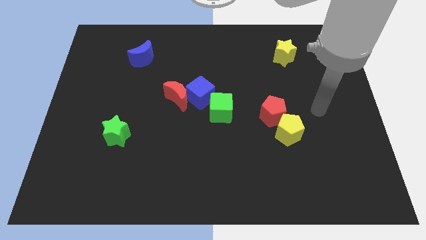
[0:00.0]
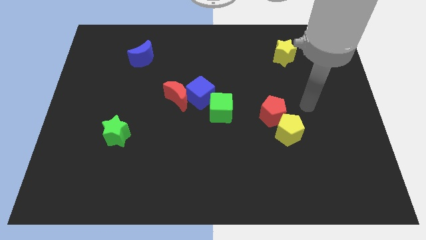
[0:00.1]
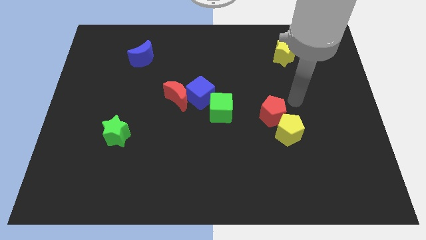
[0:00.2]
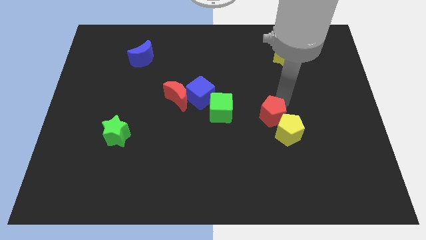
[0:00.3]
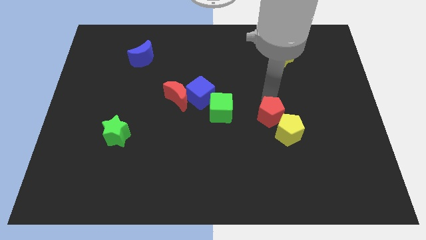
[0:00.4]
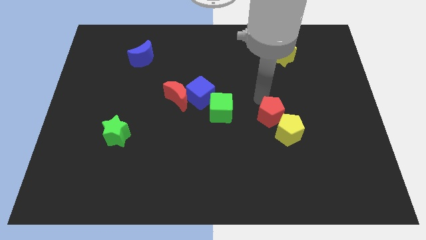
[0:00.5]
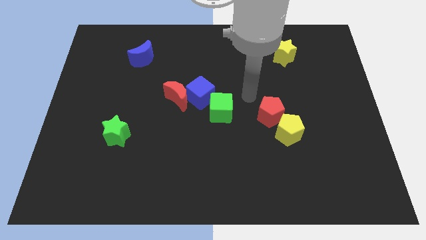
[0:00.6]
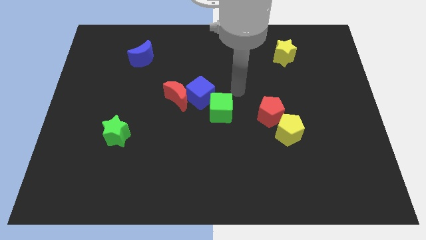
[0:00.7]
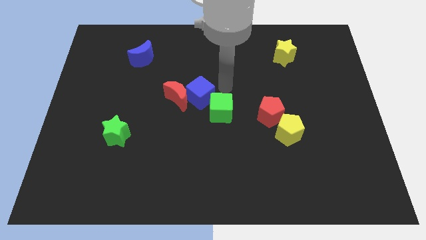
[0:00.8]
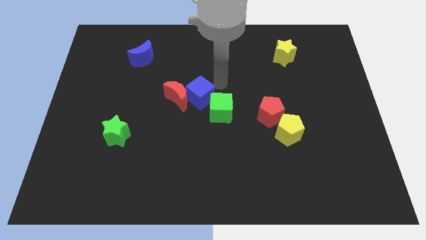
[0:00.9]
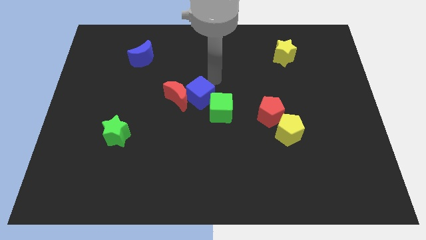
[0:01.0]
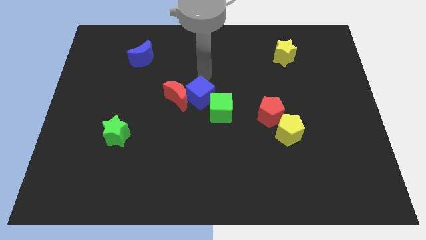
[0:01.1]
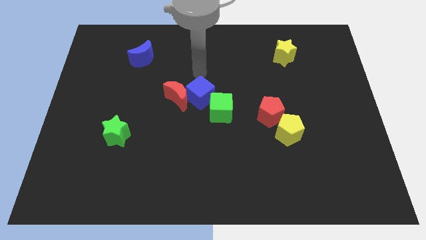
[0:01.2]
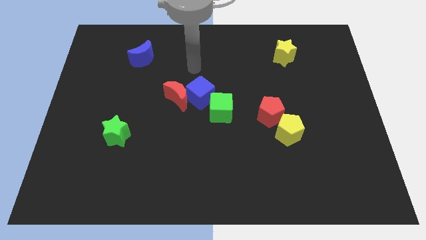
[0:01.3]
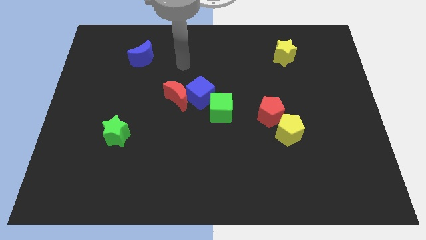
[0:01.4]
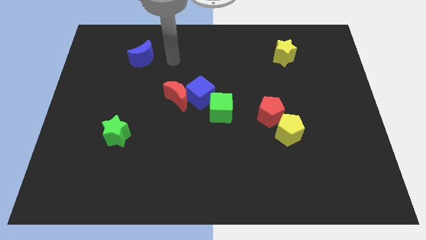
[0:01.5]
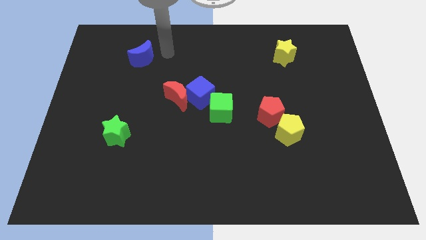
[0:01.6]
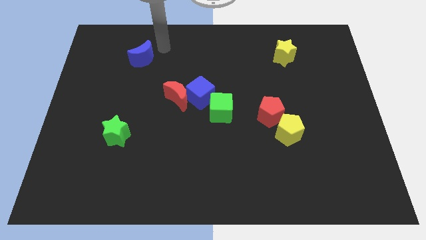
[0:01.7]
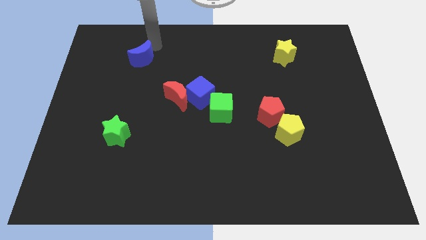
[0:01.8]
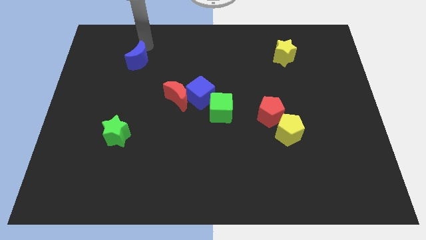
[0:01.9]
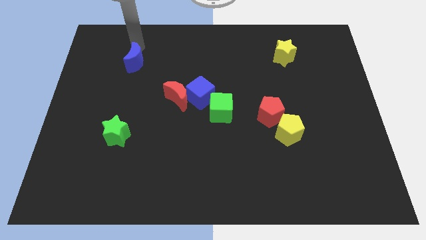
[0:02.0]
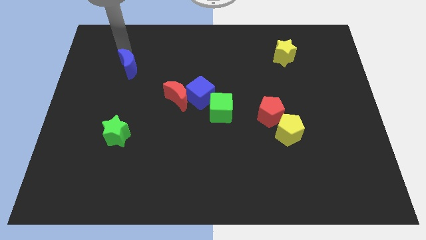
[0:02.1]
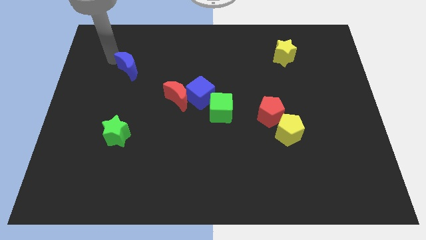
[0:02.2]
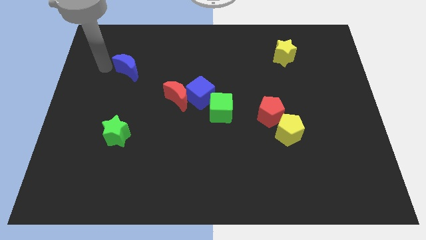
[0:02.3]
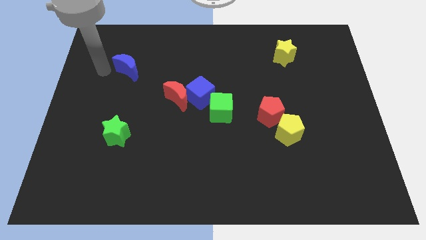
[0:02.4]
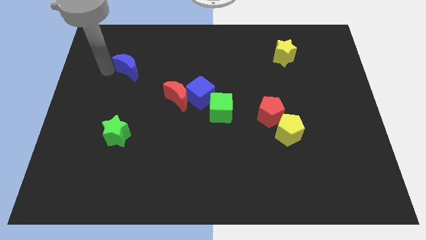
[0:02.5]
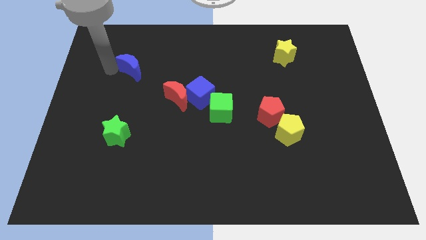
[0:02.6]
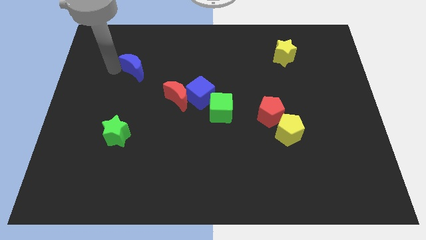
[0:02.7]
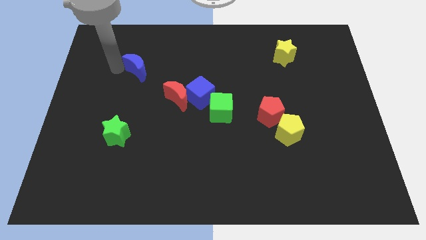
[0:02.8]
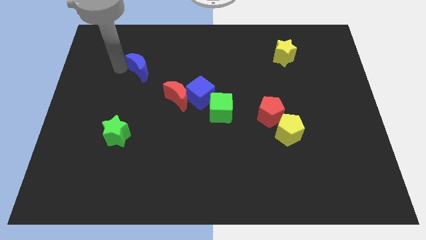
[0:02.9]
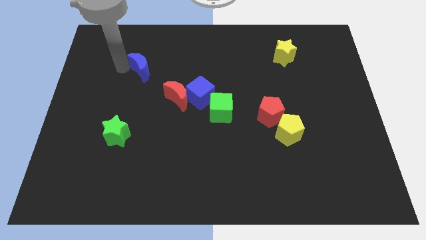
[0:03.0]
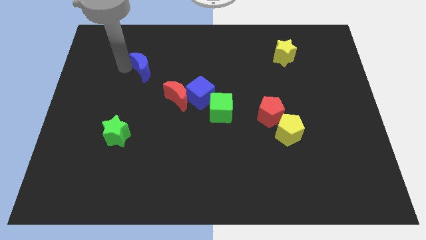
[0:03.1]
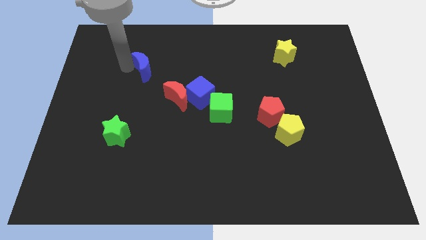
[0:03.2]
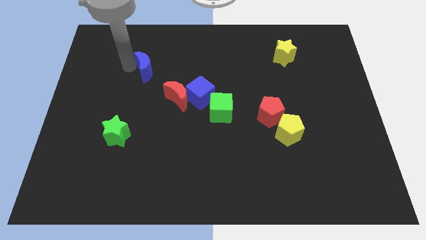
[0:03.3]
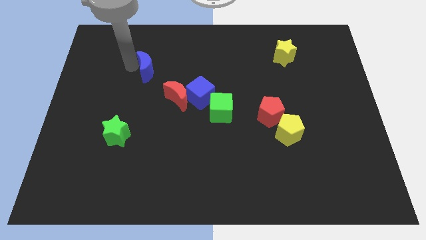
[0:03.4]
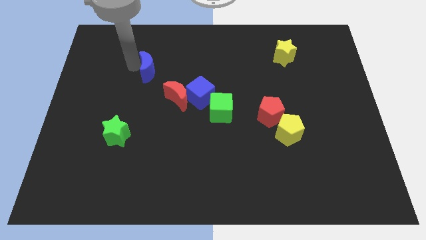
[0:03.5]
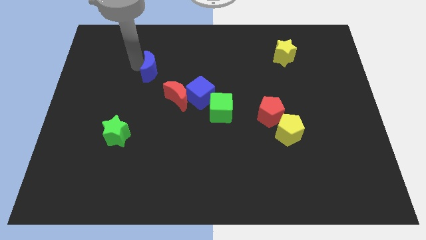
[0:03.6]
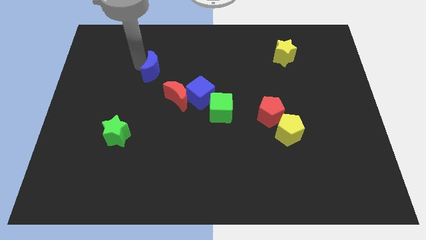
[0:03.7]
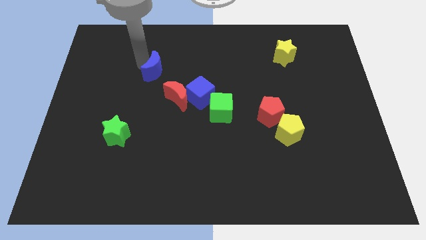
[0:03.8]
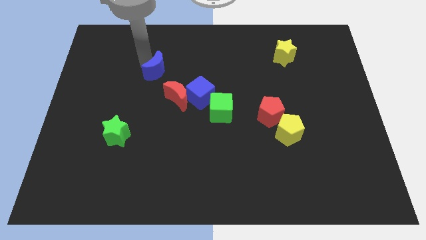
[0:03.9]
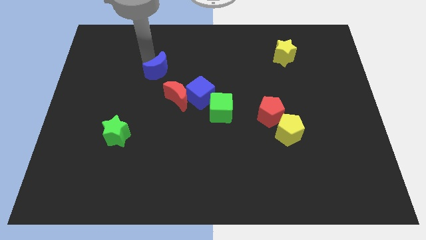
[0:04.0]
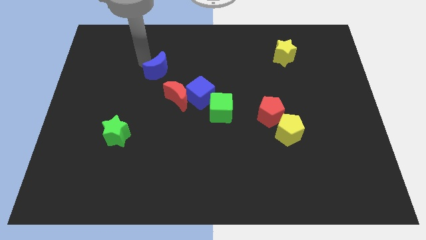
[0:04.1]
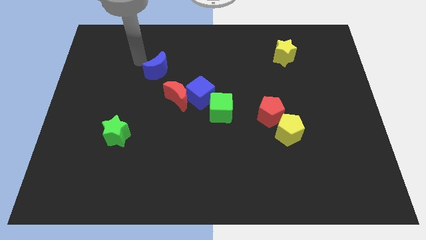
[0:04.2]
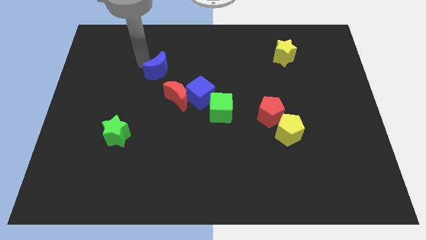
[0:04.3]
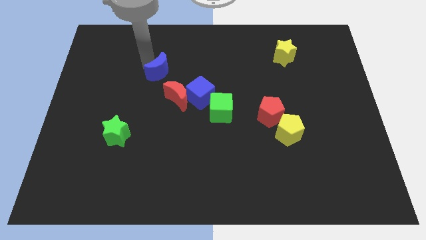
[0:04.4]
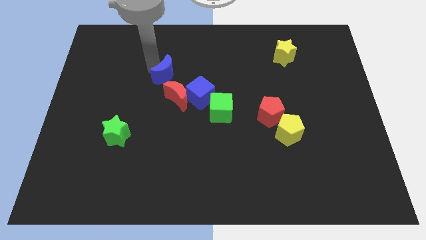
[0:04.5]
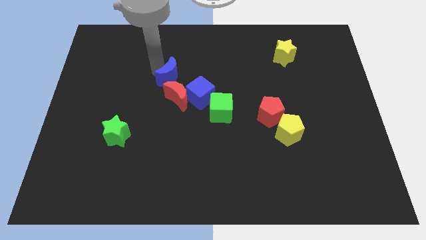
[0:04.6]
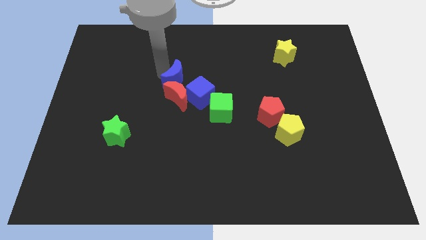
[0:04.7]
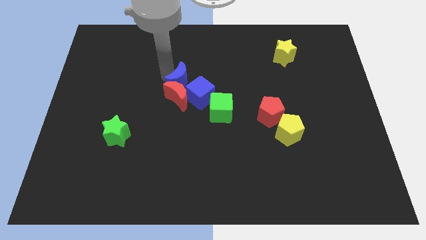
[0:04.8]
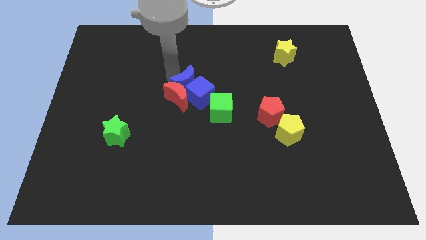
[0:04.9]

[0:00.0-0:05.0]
move the blue moon close to the blue cube

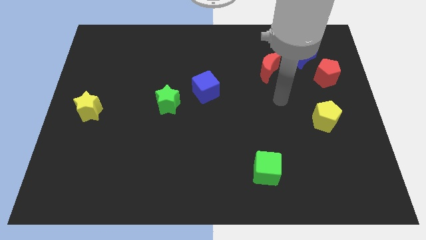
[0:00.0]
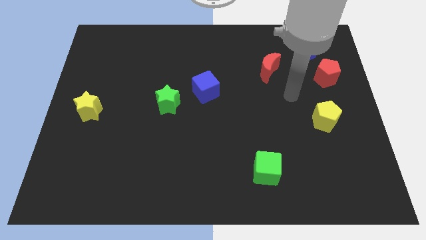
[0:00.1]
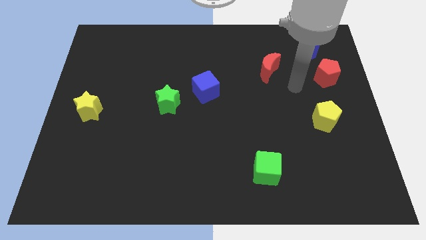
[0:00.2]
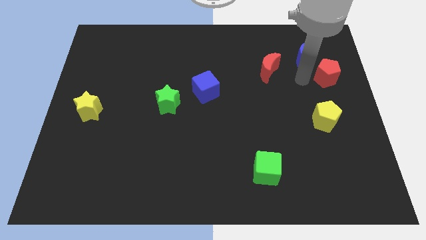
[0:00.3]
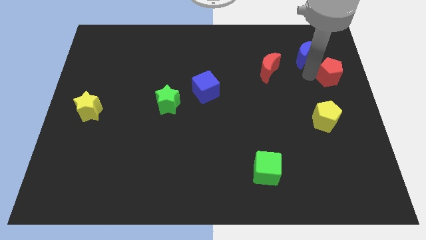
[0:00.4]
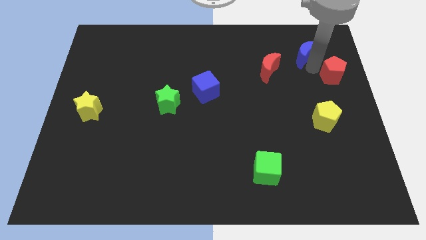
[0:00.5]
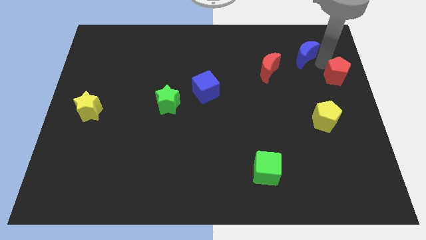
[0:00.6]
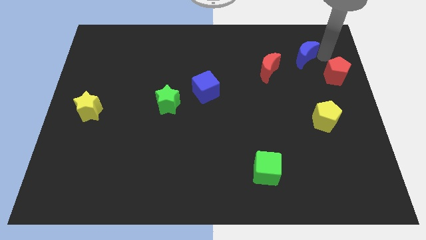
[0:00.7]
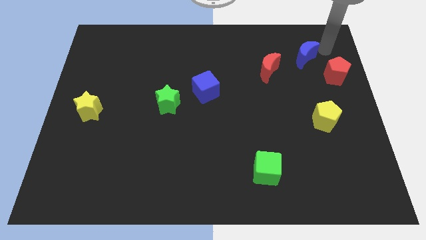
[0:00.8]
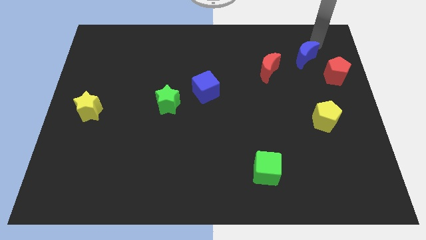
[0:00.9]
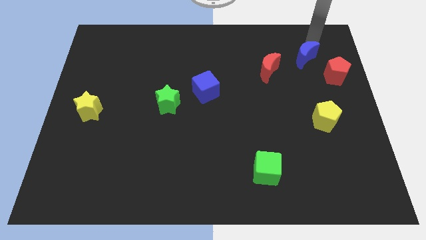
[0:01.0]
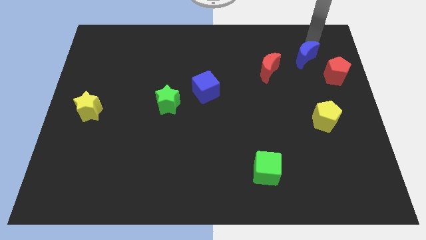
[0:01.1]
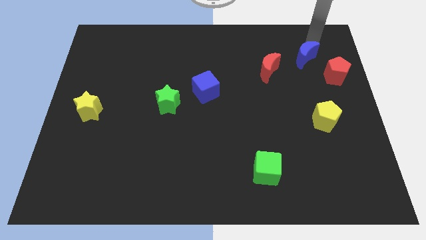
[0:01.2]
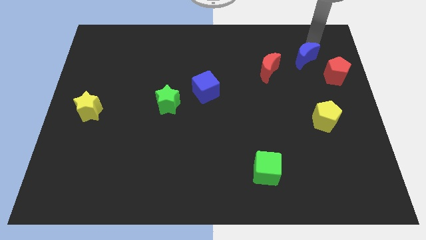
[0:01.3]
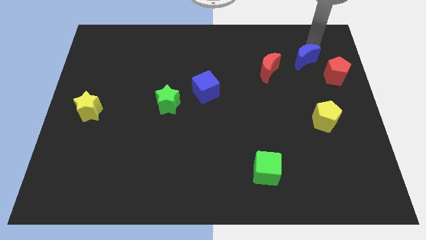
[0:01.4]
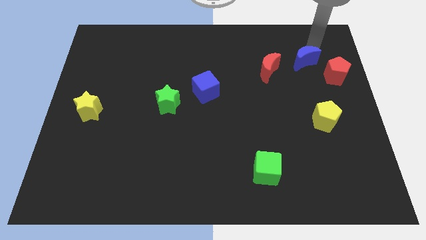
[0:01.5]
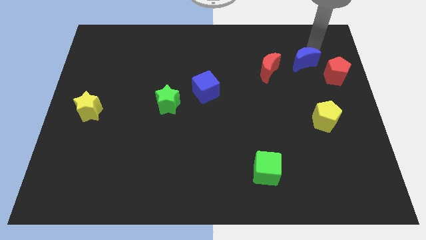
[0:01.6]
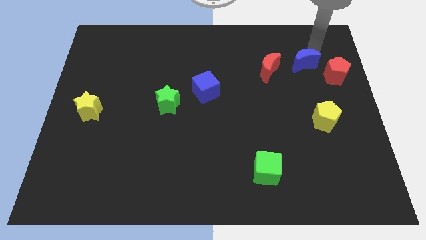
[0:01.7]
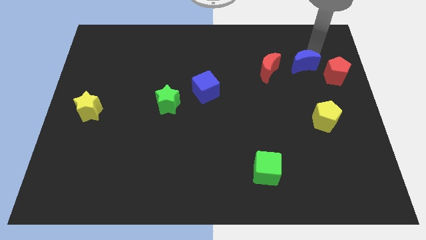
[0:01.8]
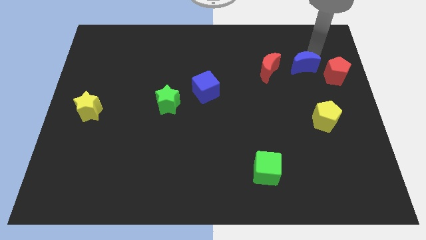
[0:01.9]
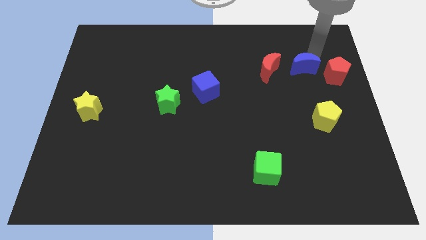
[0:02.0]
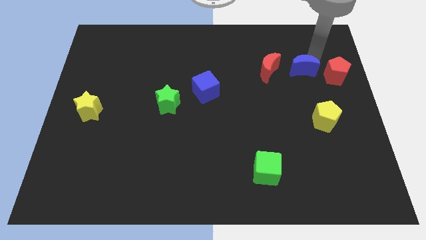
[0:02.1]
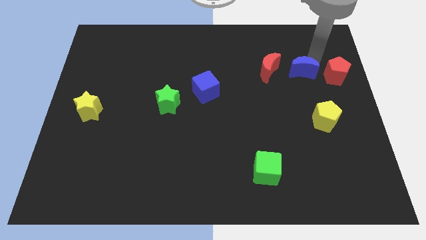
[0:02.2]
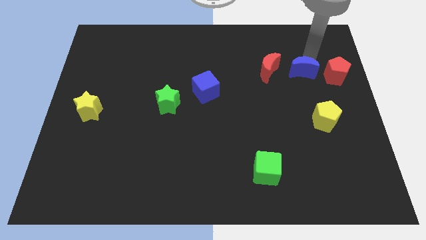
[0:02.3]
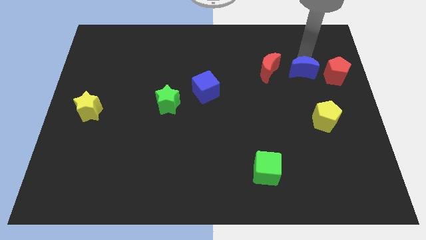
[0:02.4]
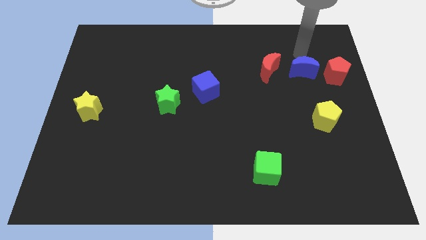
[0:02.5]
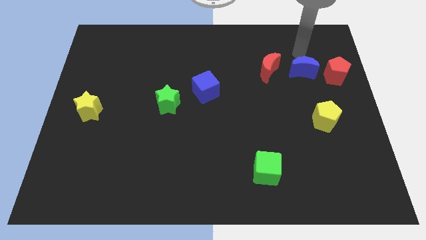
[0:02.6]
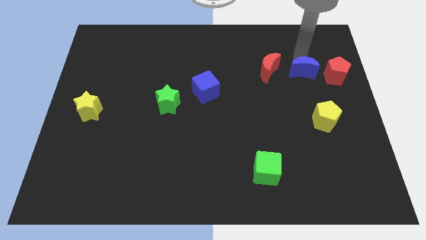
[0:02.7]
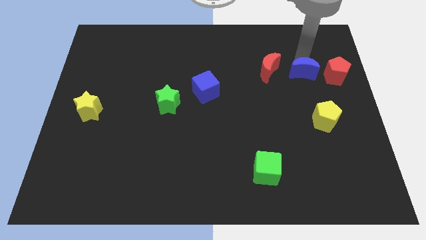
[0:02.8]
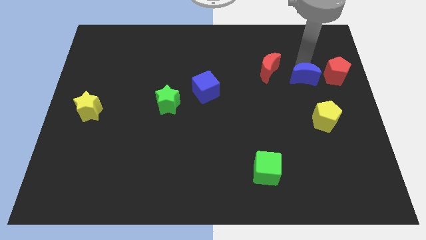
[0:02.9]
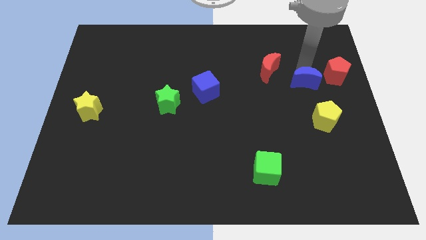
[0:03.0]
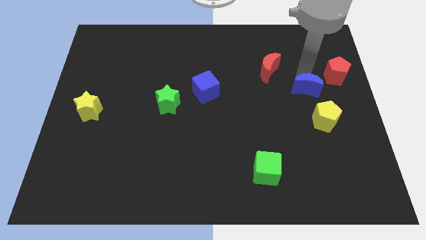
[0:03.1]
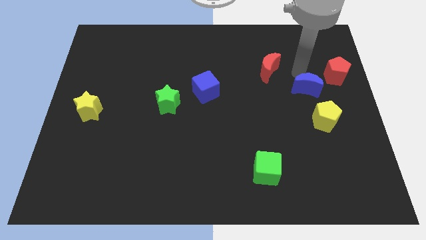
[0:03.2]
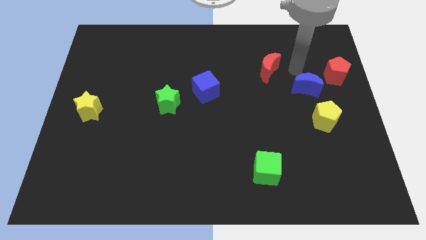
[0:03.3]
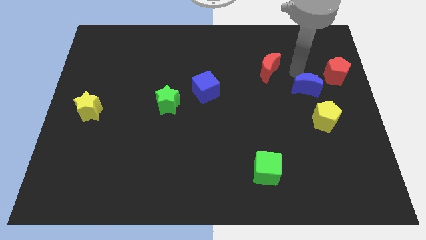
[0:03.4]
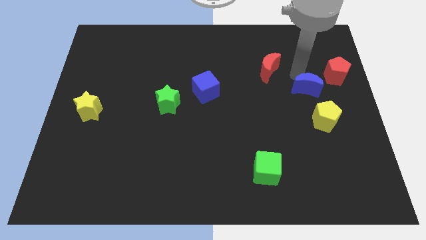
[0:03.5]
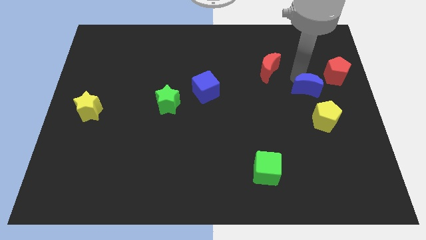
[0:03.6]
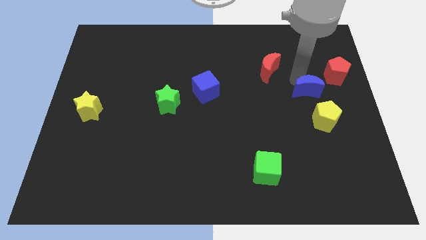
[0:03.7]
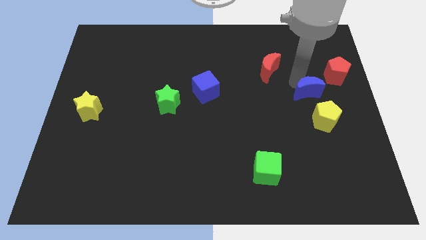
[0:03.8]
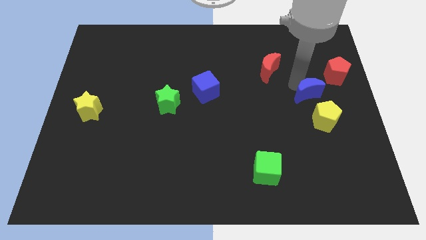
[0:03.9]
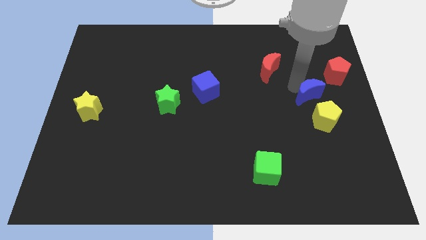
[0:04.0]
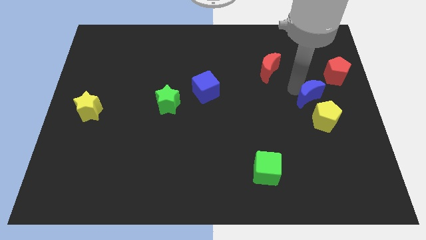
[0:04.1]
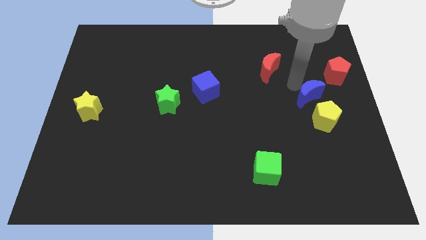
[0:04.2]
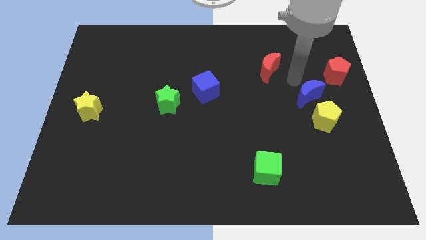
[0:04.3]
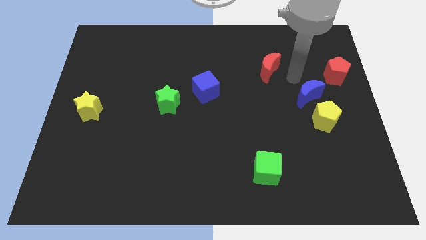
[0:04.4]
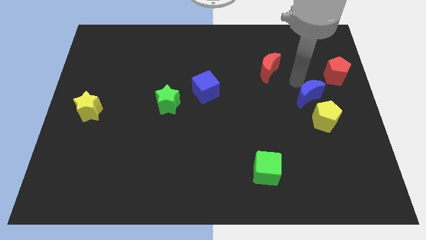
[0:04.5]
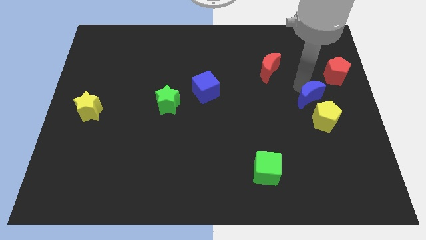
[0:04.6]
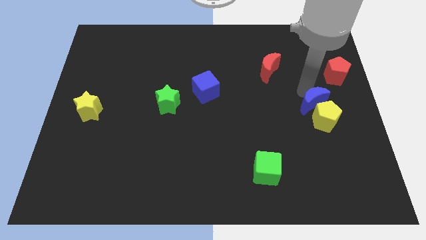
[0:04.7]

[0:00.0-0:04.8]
slide the blue moon to the yellow pentagon
